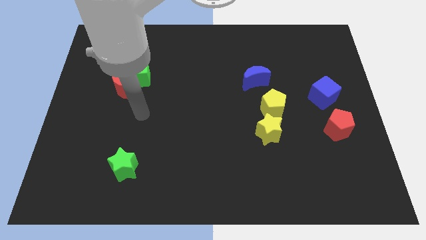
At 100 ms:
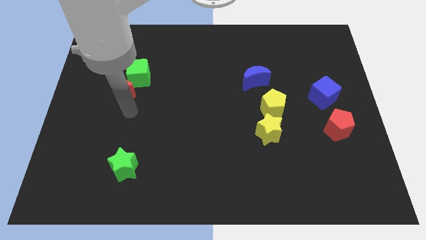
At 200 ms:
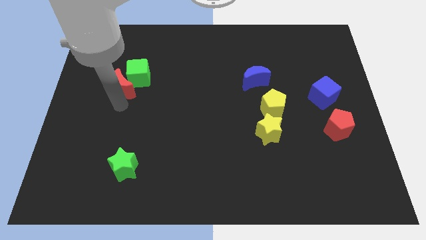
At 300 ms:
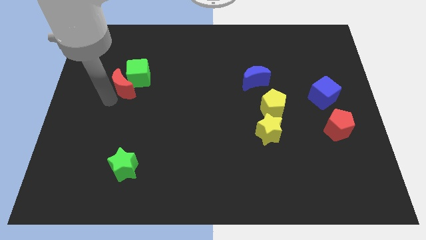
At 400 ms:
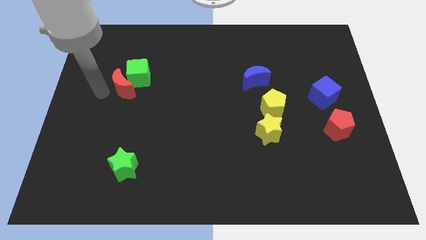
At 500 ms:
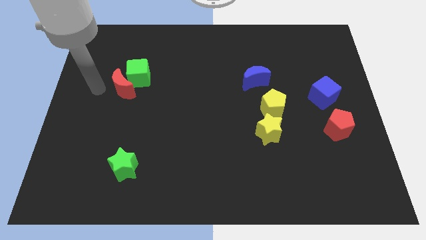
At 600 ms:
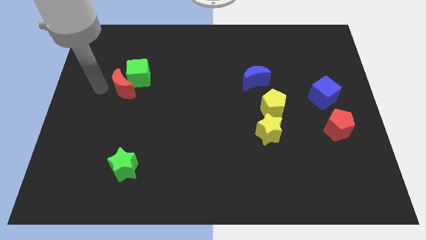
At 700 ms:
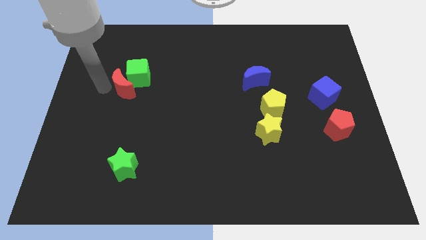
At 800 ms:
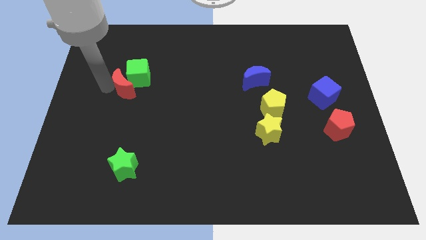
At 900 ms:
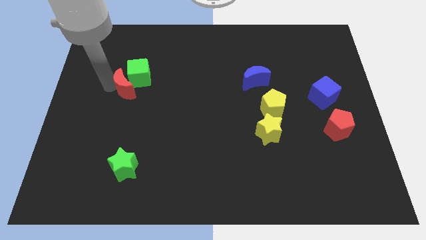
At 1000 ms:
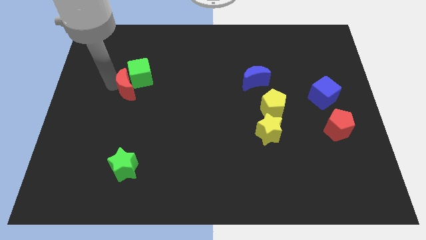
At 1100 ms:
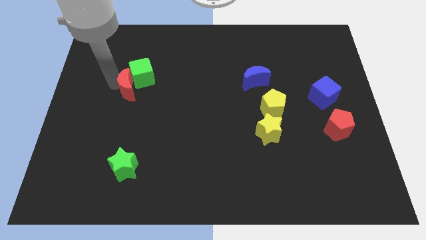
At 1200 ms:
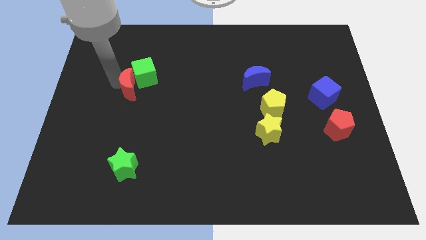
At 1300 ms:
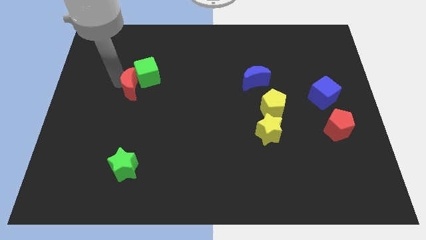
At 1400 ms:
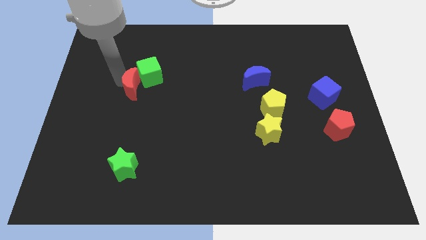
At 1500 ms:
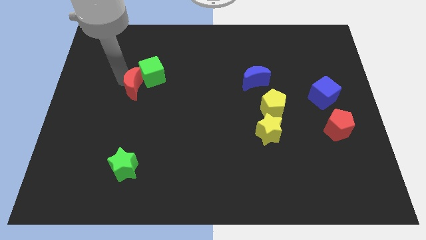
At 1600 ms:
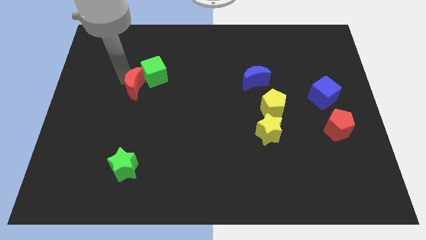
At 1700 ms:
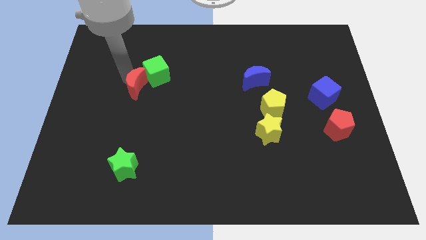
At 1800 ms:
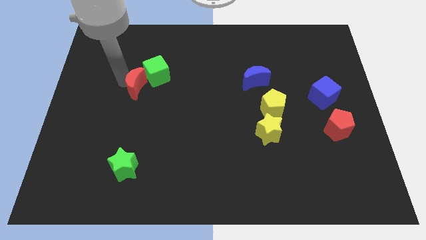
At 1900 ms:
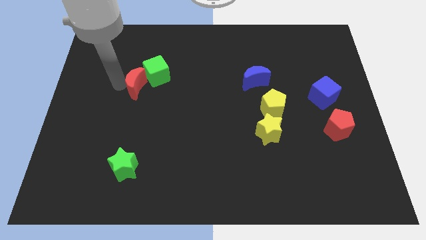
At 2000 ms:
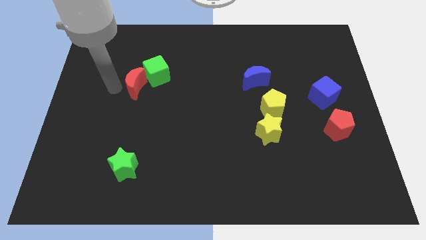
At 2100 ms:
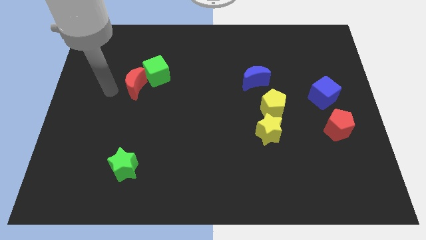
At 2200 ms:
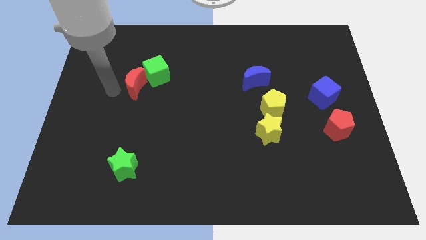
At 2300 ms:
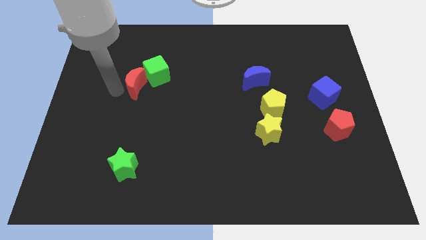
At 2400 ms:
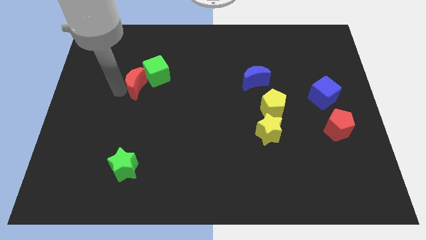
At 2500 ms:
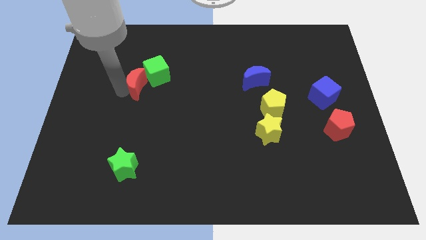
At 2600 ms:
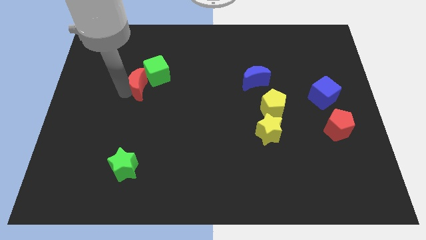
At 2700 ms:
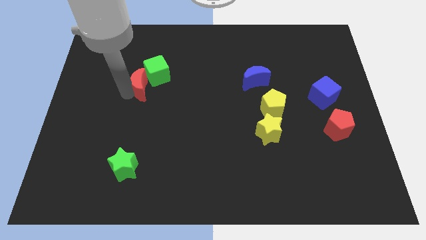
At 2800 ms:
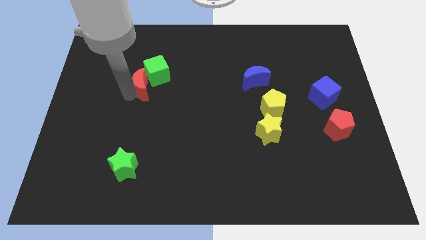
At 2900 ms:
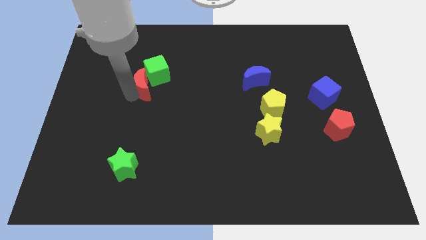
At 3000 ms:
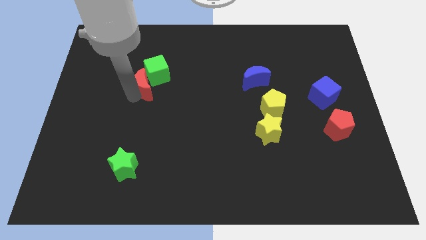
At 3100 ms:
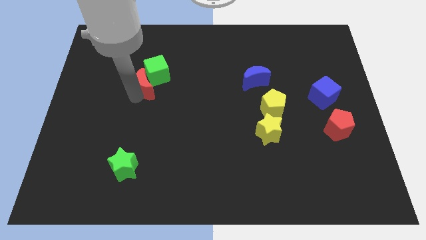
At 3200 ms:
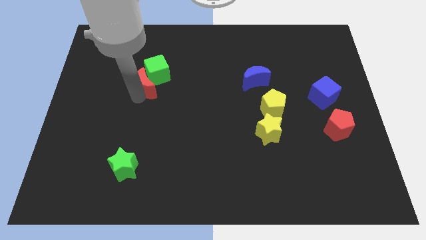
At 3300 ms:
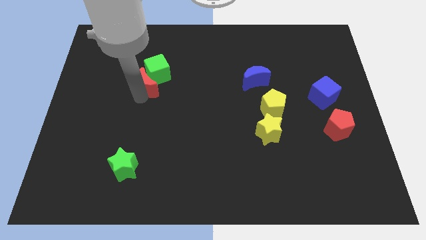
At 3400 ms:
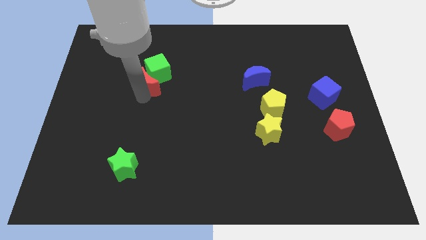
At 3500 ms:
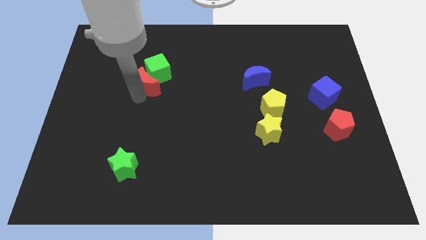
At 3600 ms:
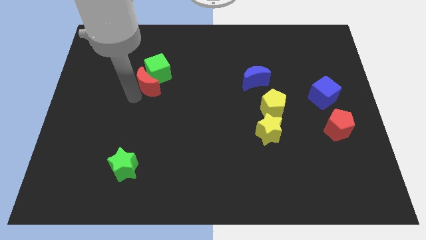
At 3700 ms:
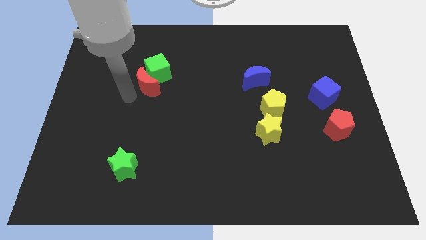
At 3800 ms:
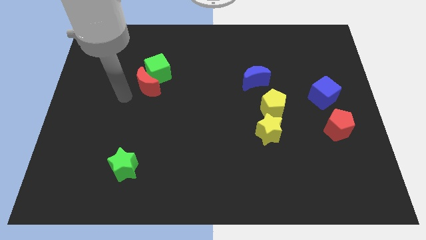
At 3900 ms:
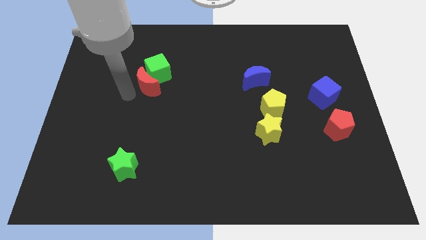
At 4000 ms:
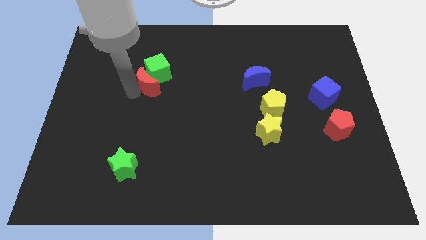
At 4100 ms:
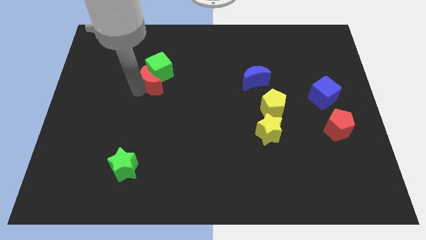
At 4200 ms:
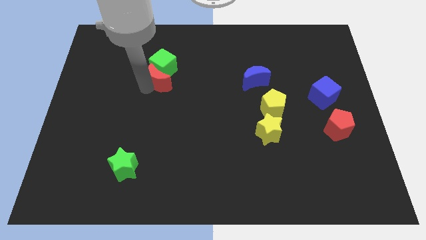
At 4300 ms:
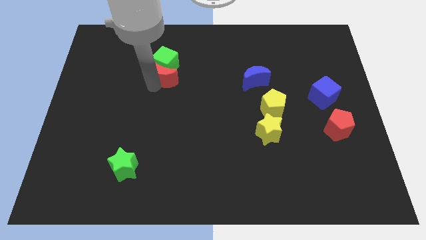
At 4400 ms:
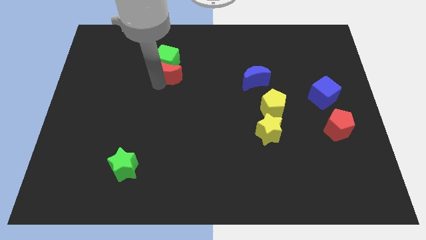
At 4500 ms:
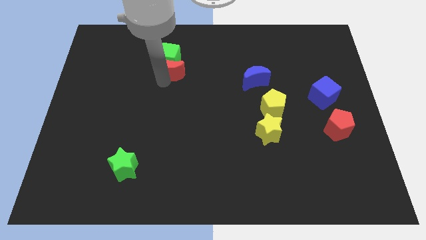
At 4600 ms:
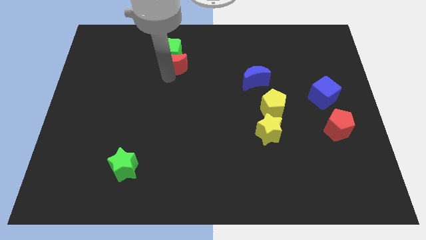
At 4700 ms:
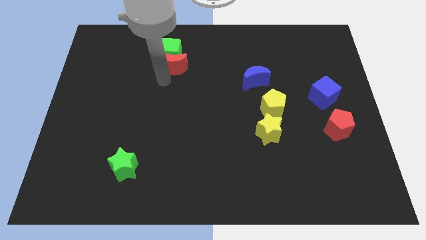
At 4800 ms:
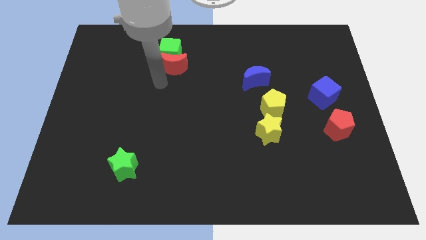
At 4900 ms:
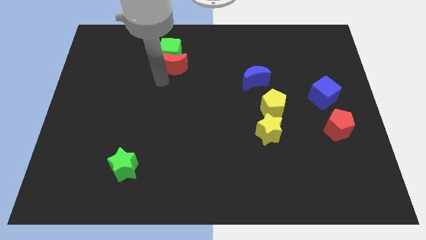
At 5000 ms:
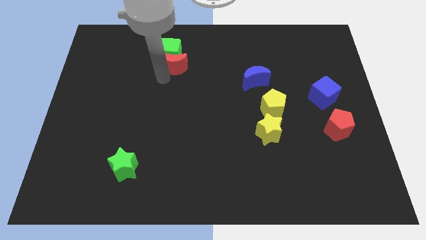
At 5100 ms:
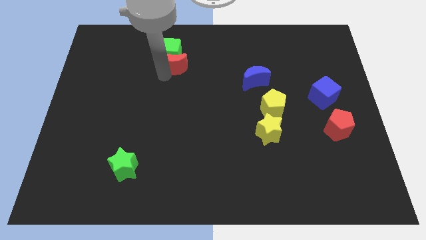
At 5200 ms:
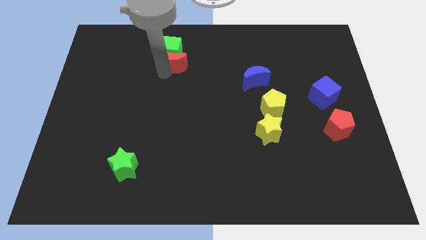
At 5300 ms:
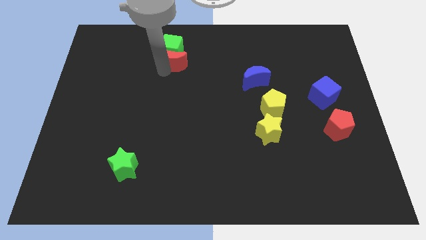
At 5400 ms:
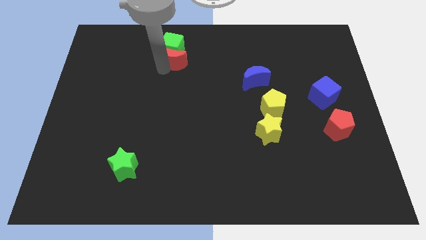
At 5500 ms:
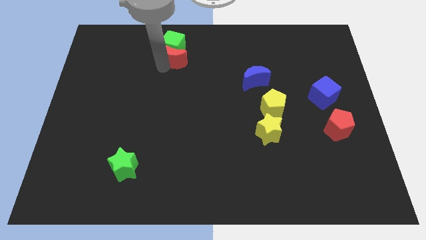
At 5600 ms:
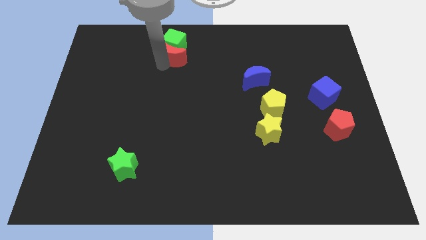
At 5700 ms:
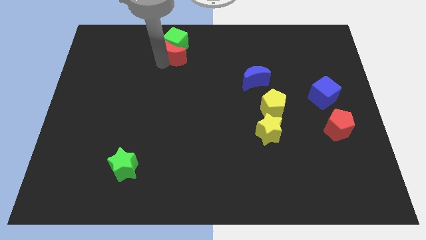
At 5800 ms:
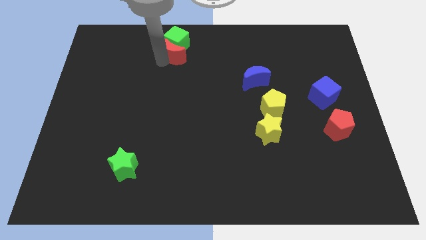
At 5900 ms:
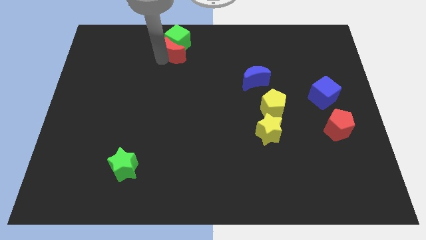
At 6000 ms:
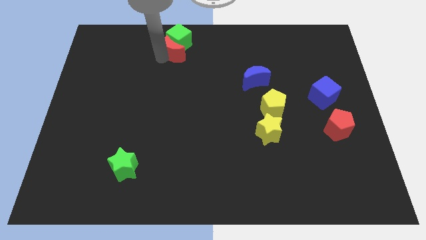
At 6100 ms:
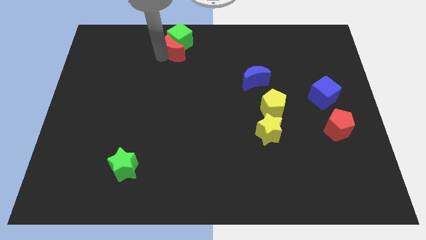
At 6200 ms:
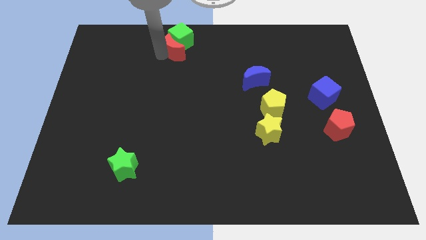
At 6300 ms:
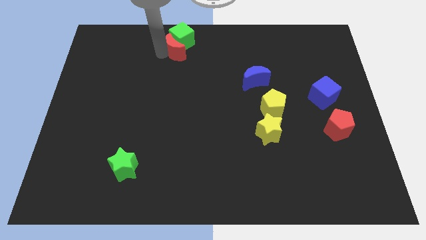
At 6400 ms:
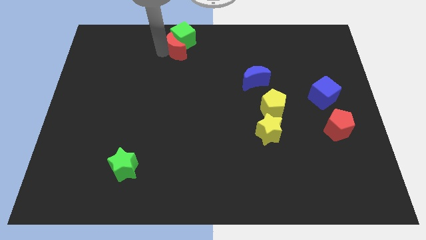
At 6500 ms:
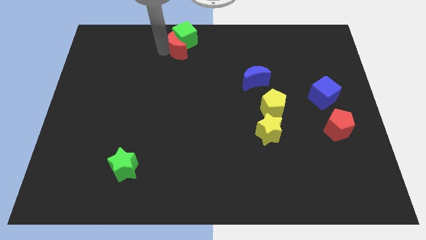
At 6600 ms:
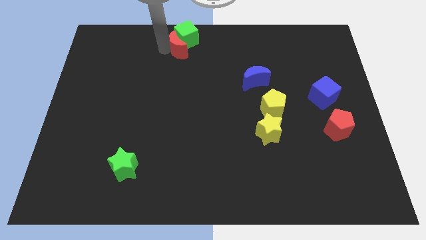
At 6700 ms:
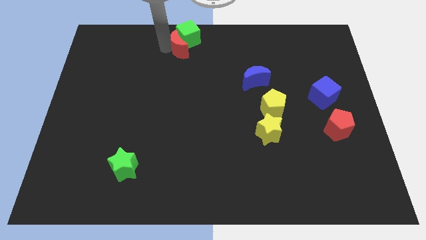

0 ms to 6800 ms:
move the red moon to the top

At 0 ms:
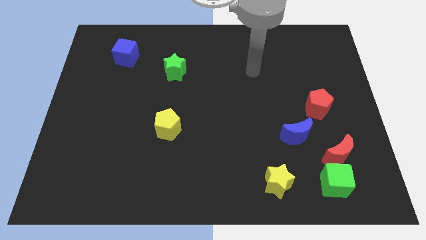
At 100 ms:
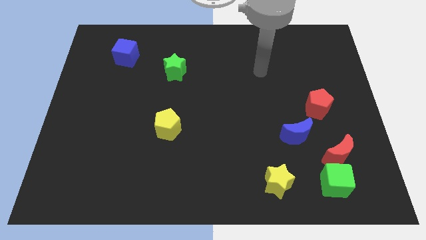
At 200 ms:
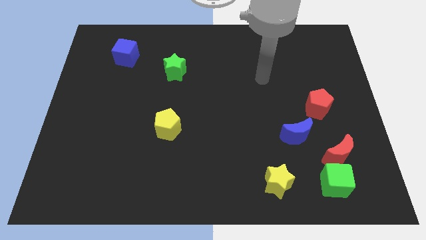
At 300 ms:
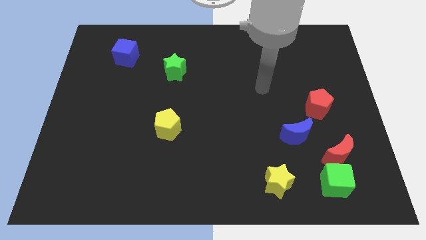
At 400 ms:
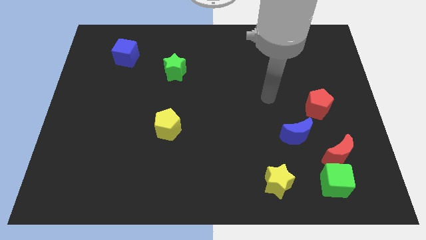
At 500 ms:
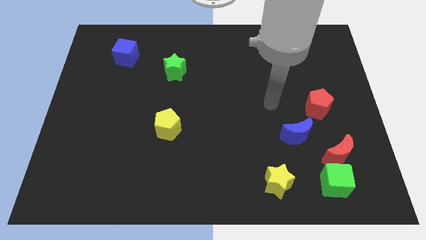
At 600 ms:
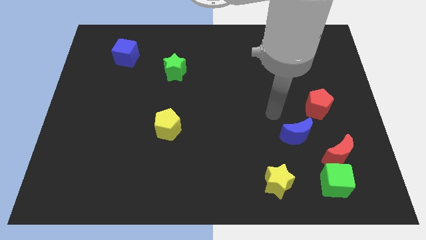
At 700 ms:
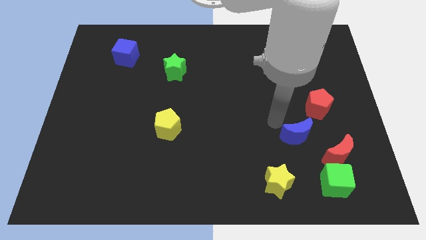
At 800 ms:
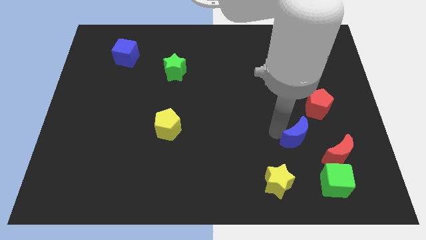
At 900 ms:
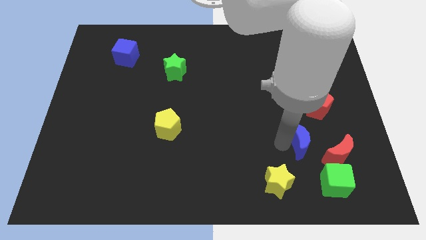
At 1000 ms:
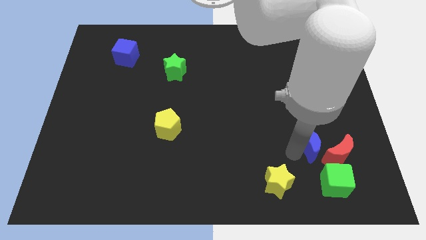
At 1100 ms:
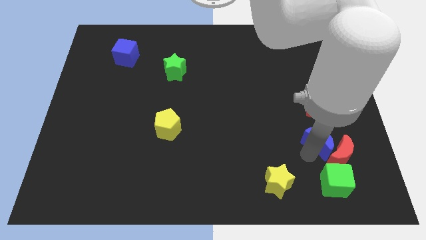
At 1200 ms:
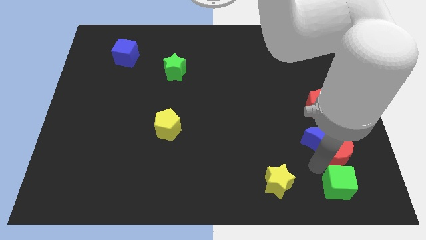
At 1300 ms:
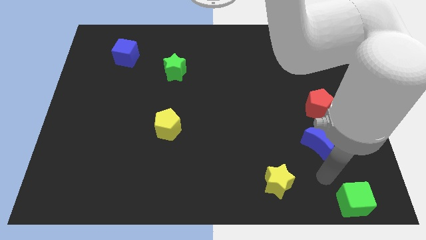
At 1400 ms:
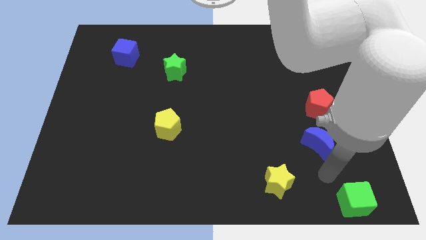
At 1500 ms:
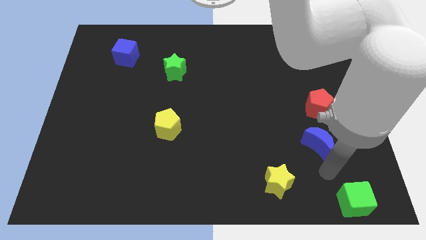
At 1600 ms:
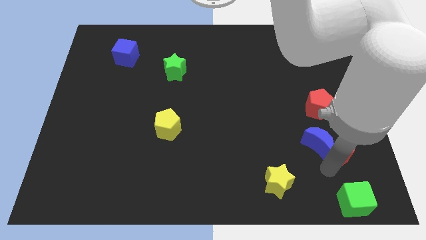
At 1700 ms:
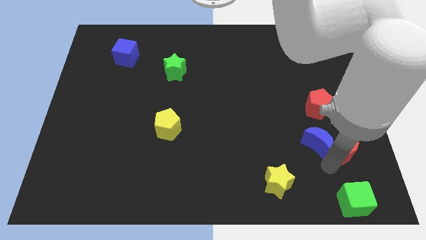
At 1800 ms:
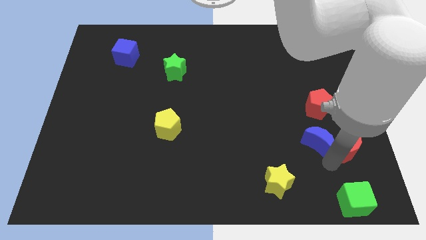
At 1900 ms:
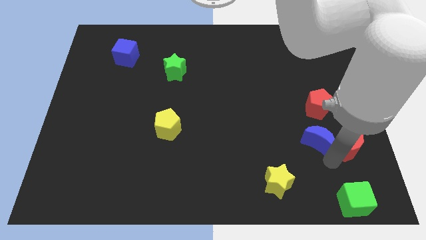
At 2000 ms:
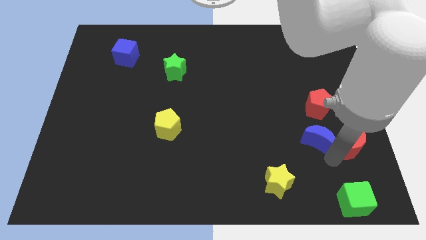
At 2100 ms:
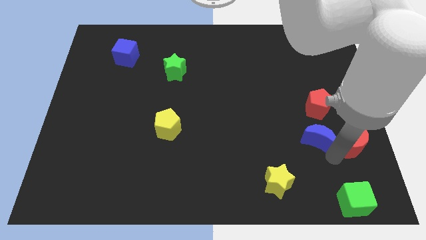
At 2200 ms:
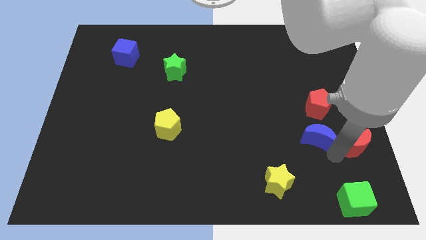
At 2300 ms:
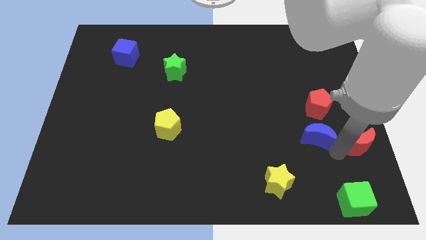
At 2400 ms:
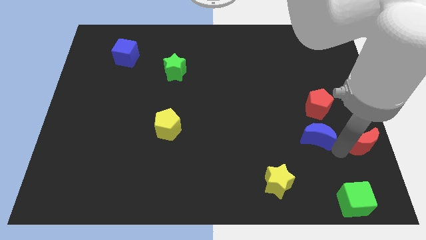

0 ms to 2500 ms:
push the red moon to the center right
